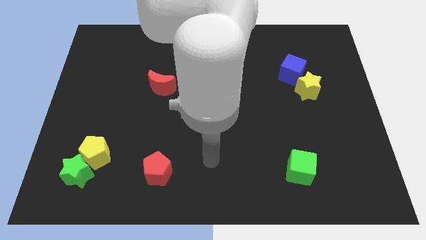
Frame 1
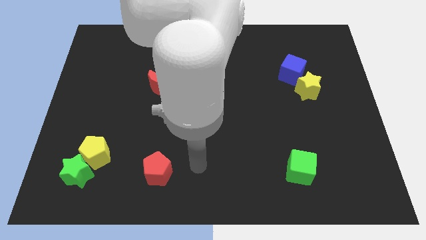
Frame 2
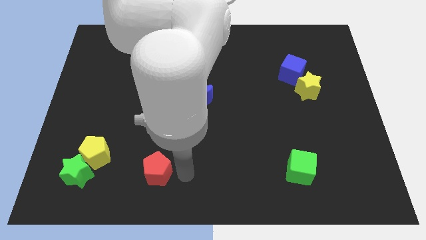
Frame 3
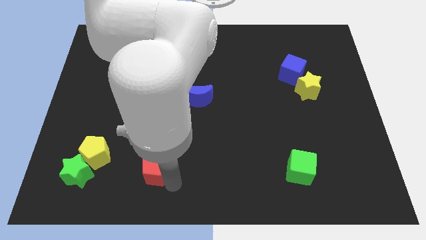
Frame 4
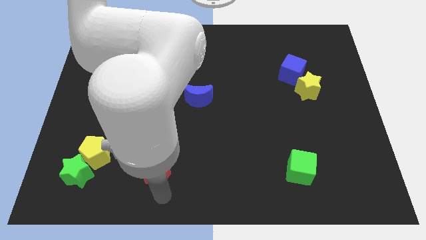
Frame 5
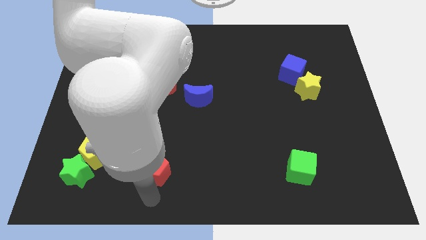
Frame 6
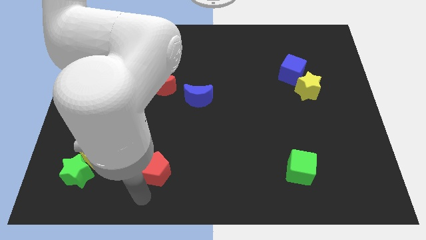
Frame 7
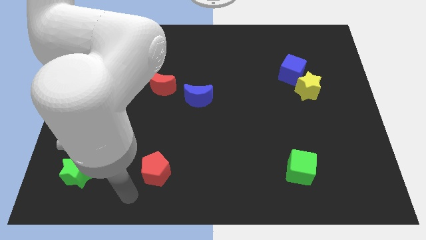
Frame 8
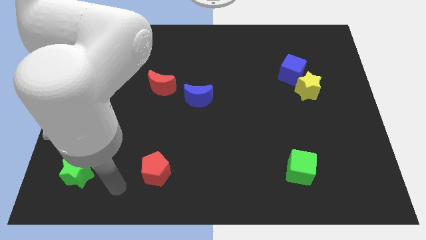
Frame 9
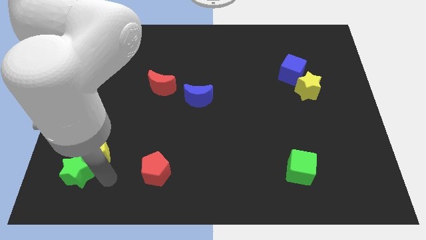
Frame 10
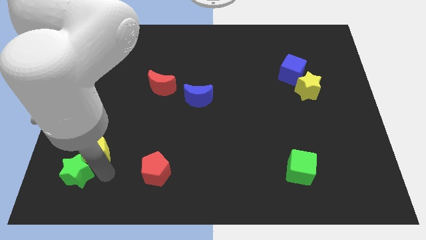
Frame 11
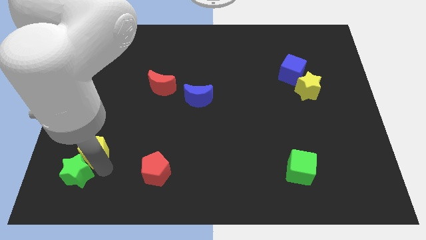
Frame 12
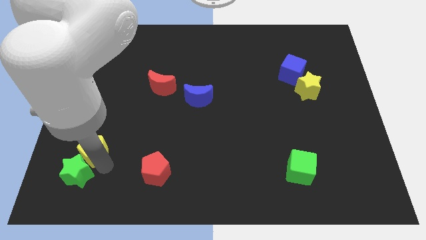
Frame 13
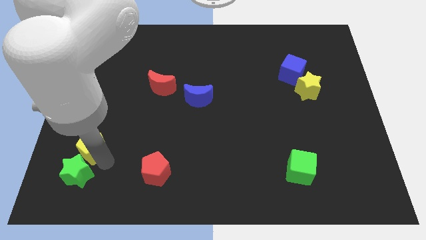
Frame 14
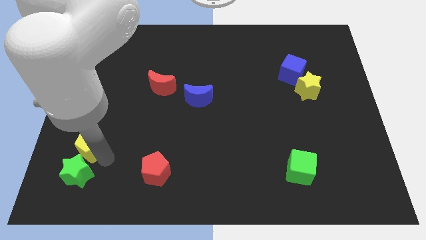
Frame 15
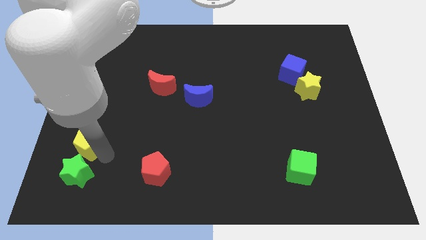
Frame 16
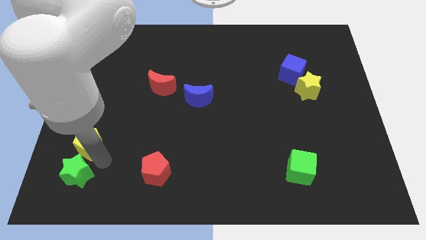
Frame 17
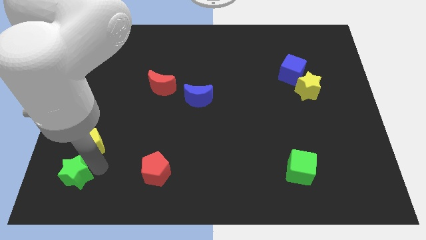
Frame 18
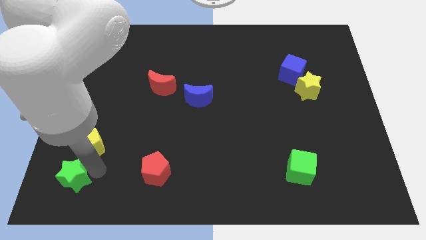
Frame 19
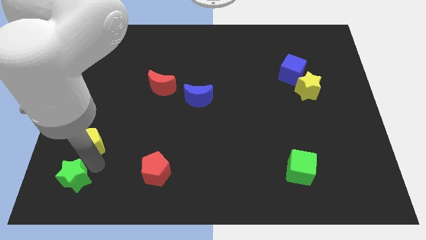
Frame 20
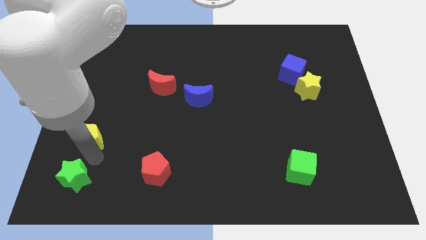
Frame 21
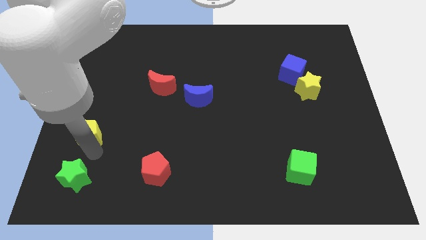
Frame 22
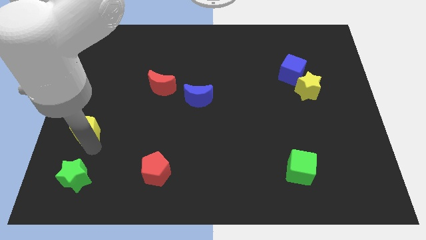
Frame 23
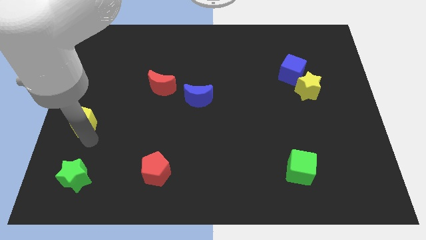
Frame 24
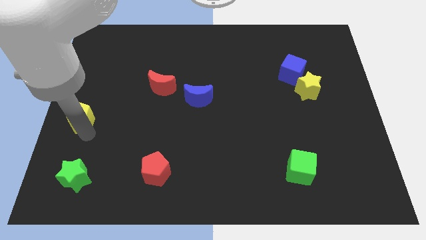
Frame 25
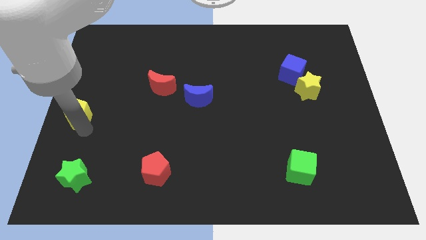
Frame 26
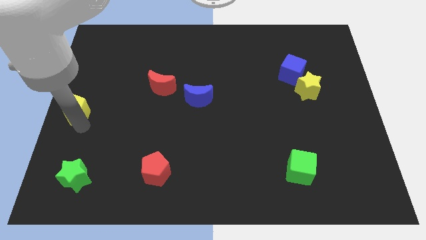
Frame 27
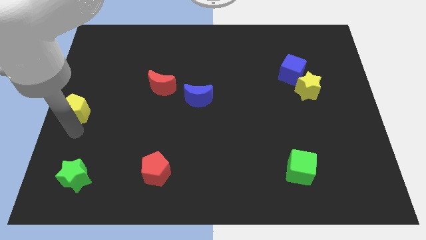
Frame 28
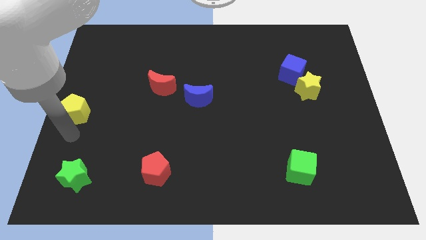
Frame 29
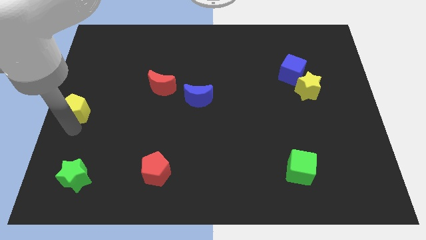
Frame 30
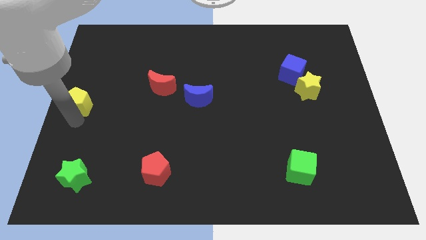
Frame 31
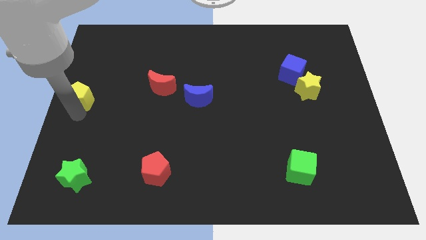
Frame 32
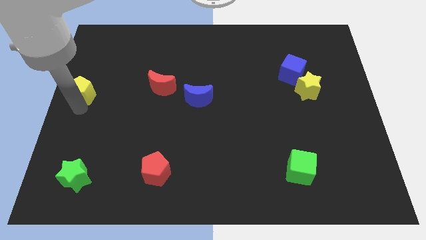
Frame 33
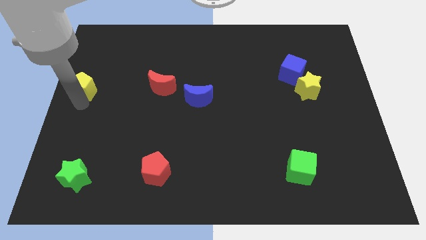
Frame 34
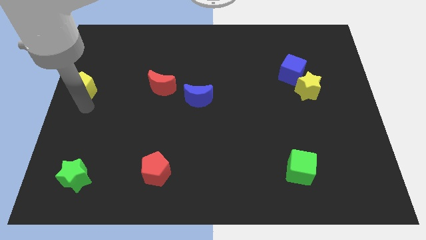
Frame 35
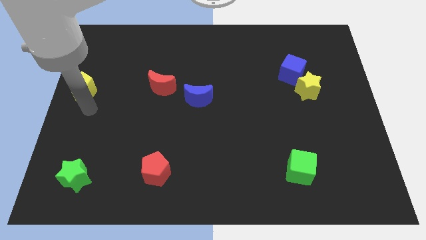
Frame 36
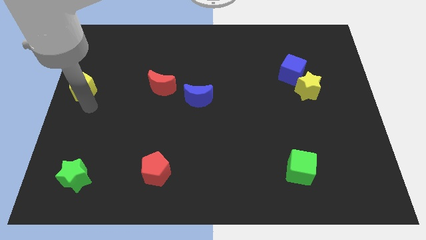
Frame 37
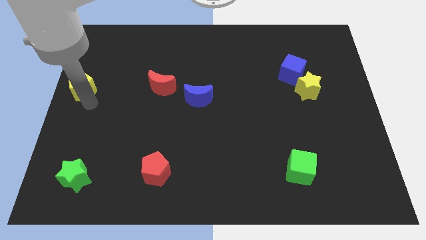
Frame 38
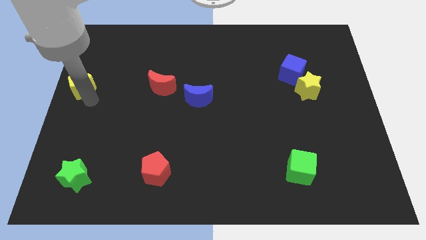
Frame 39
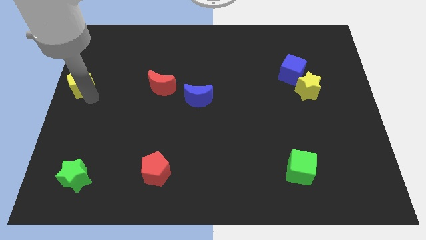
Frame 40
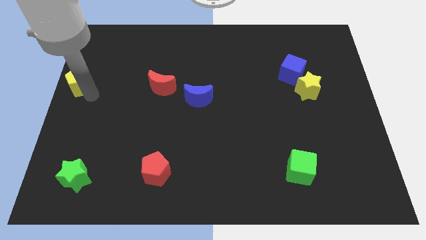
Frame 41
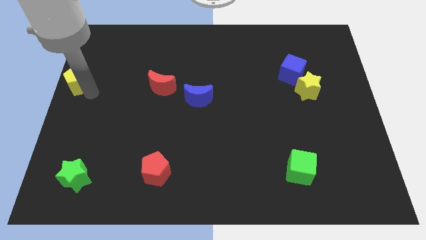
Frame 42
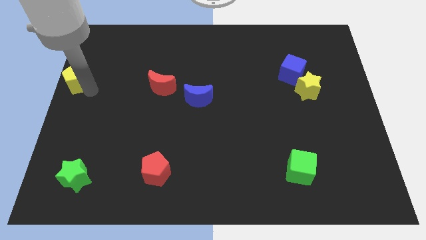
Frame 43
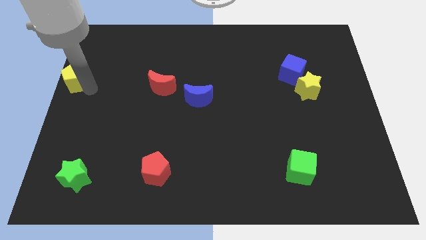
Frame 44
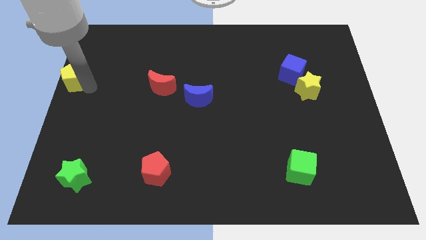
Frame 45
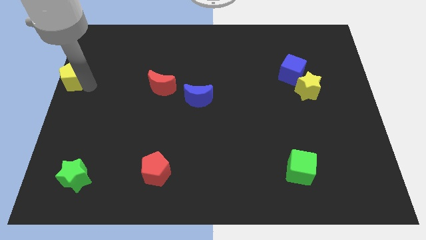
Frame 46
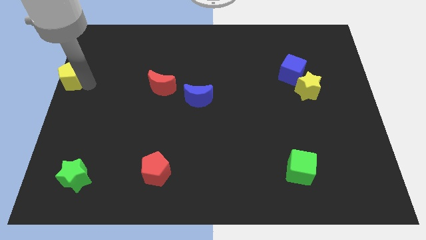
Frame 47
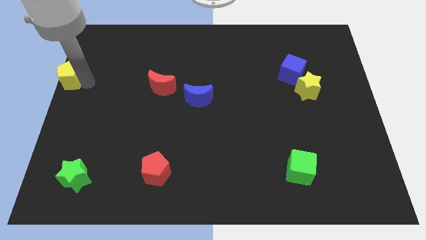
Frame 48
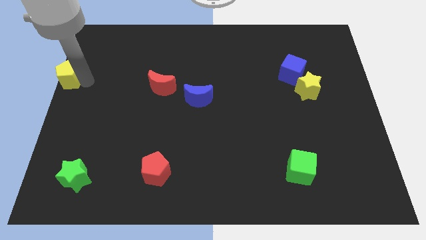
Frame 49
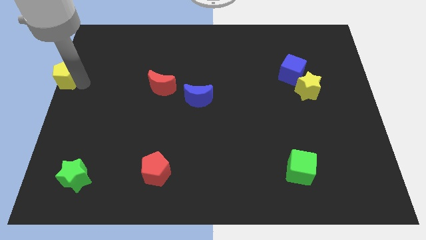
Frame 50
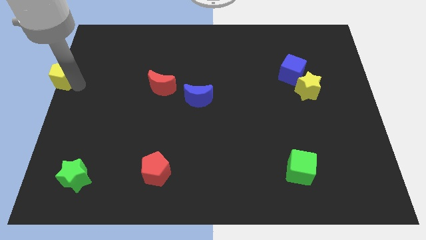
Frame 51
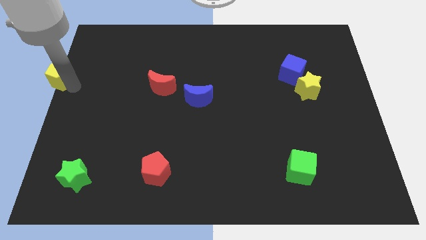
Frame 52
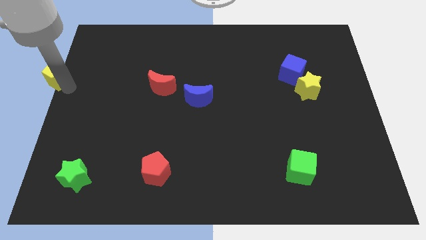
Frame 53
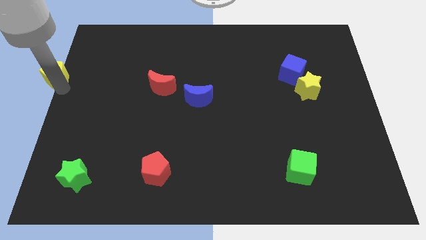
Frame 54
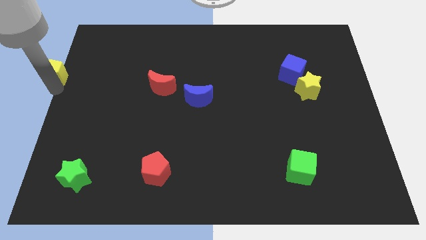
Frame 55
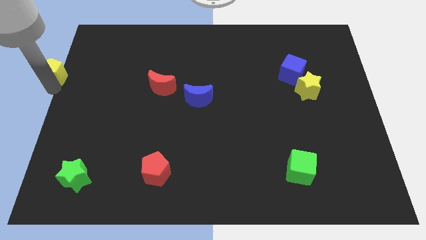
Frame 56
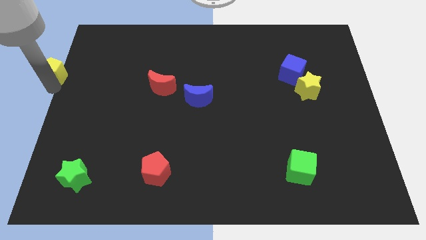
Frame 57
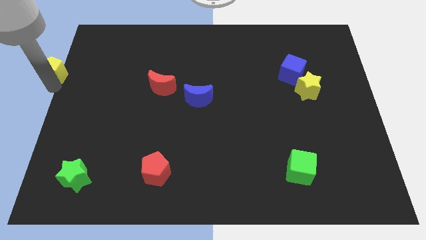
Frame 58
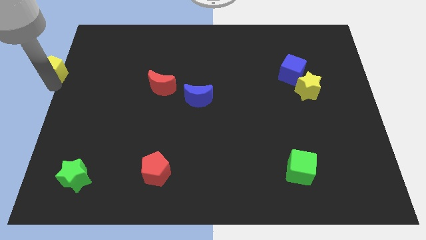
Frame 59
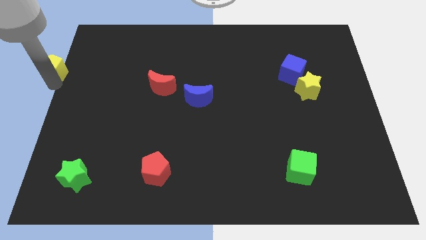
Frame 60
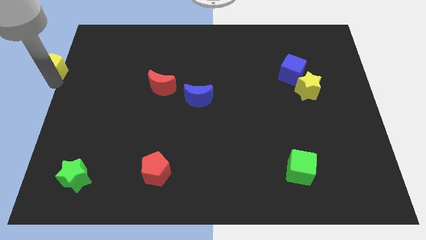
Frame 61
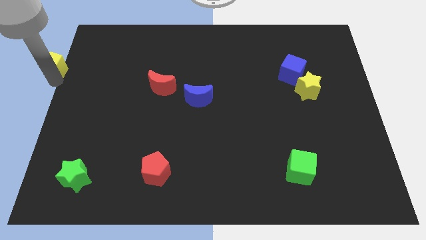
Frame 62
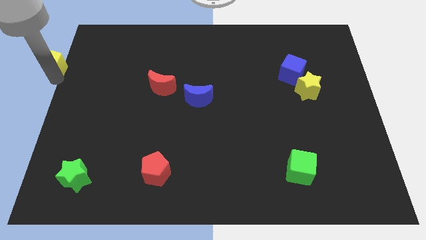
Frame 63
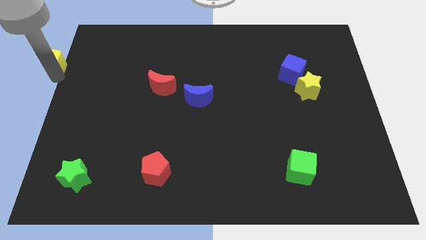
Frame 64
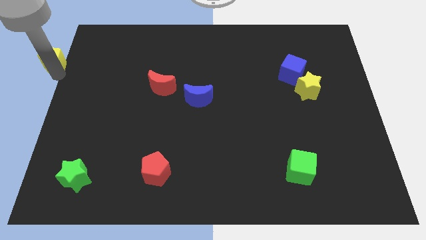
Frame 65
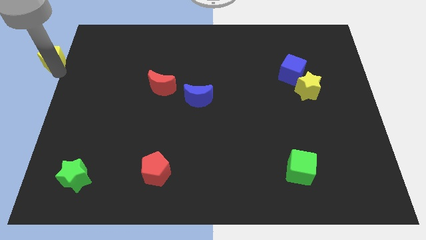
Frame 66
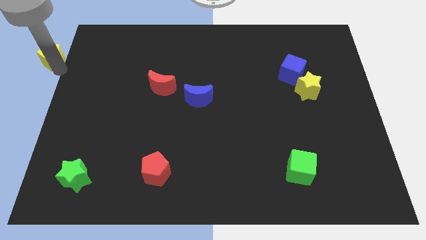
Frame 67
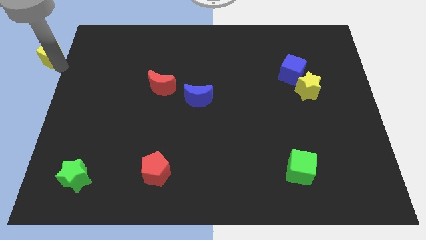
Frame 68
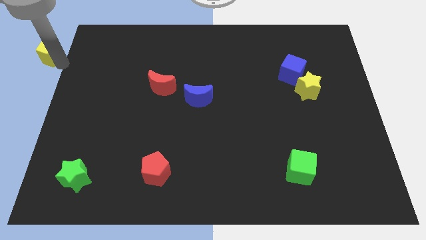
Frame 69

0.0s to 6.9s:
push the yellow pentagon to the top left of the board
